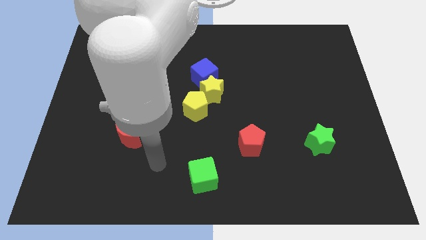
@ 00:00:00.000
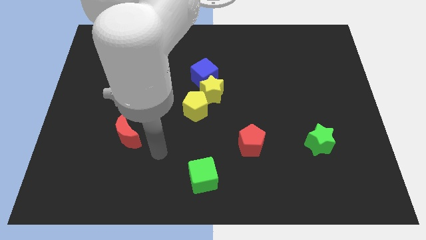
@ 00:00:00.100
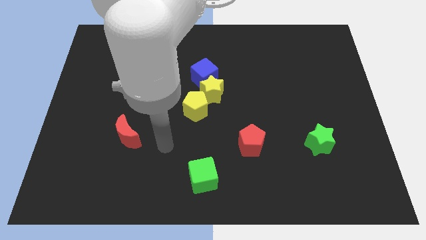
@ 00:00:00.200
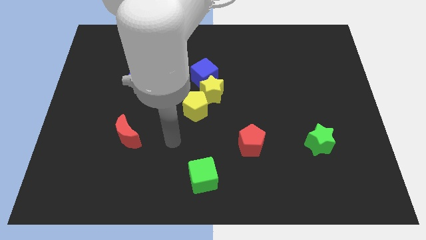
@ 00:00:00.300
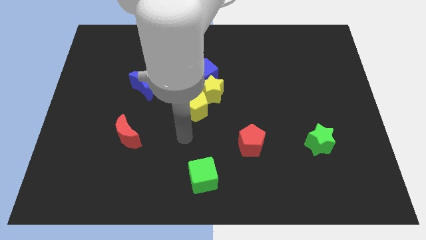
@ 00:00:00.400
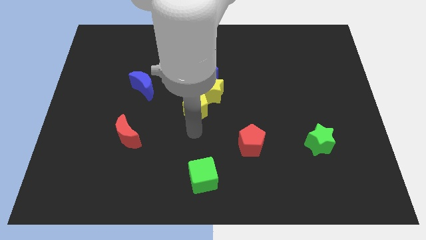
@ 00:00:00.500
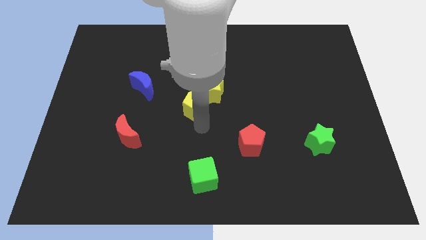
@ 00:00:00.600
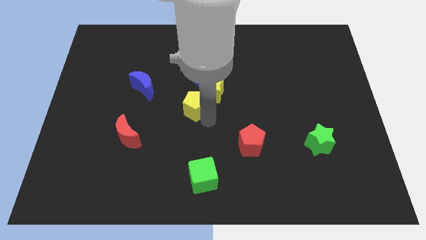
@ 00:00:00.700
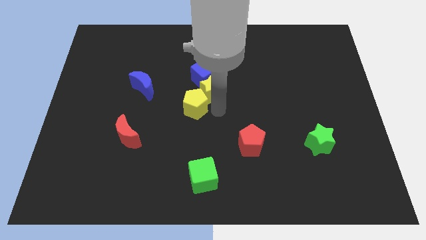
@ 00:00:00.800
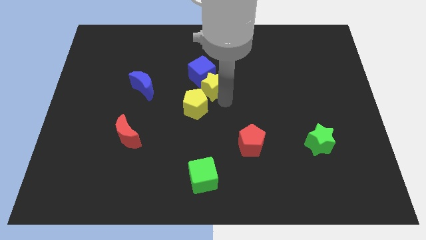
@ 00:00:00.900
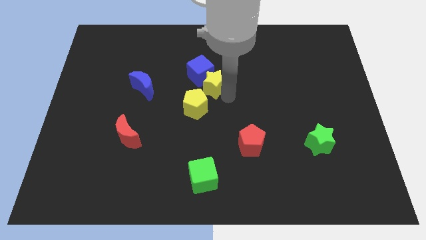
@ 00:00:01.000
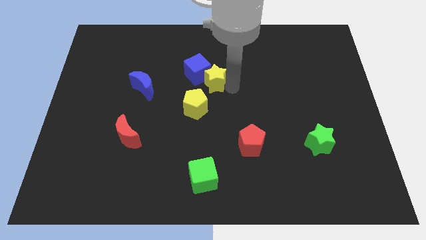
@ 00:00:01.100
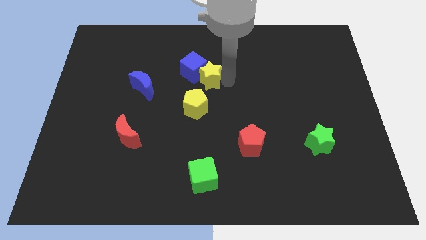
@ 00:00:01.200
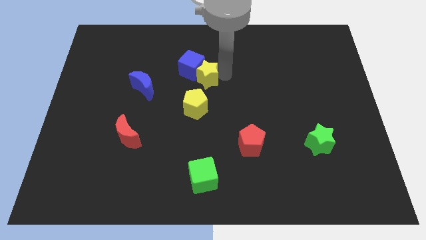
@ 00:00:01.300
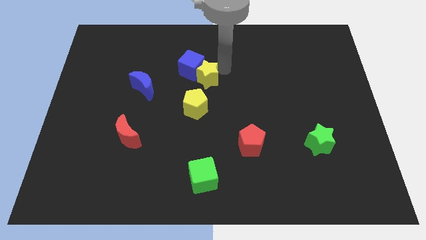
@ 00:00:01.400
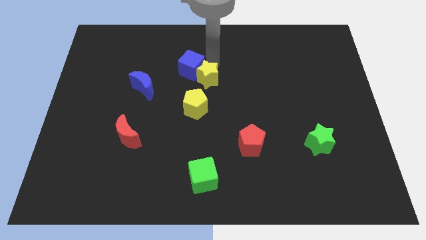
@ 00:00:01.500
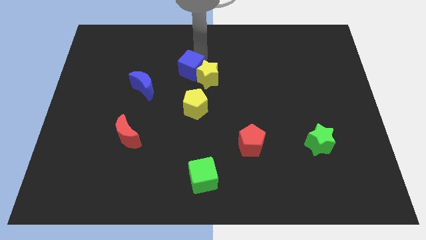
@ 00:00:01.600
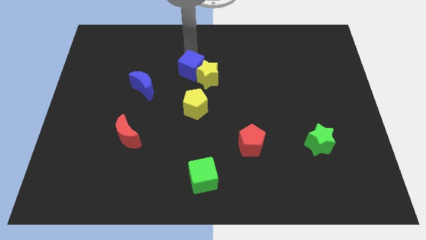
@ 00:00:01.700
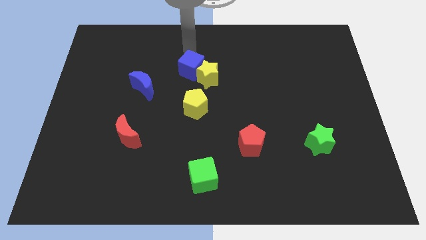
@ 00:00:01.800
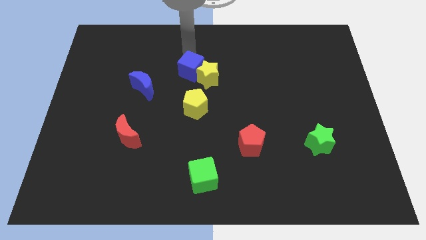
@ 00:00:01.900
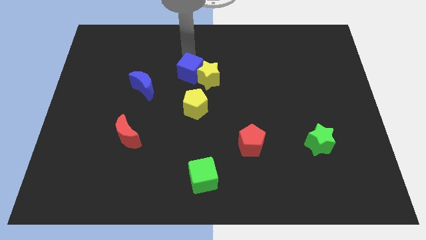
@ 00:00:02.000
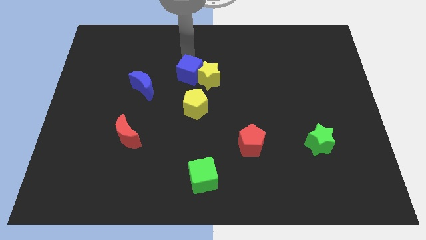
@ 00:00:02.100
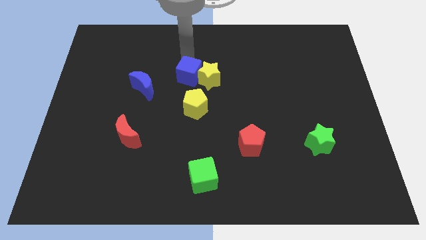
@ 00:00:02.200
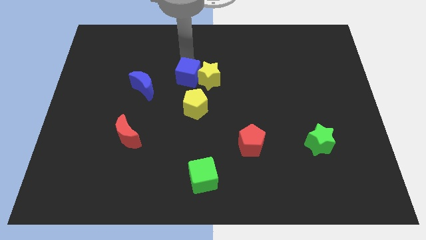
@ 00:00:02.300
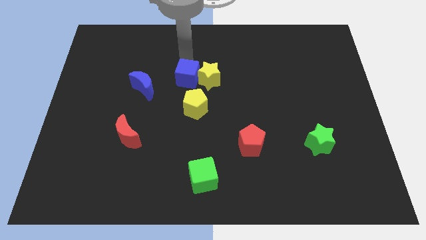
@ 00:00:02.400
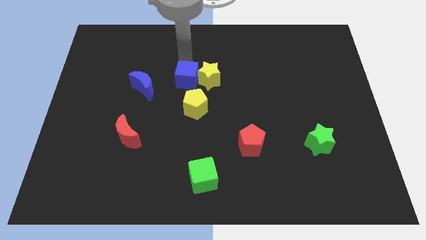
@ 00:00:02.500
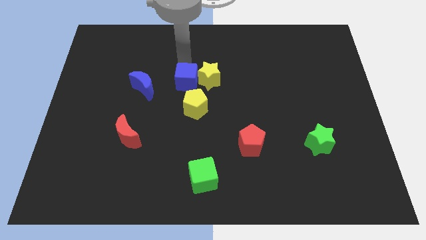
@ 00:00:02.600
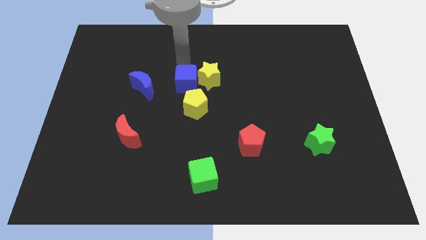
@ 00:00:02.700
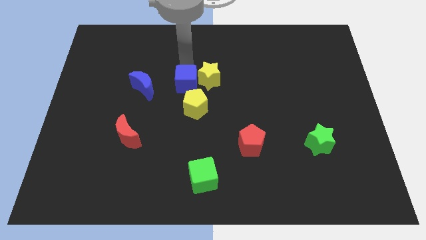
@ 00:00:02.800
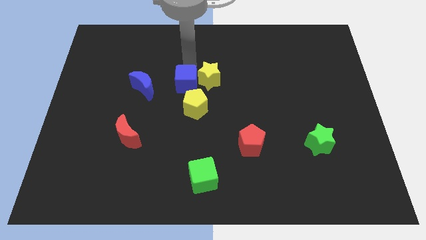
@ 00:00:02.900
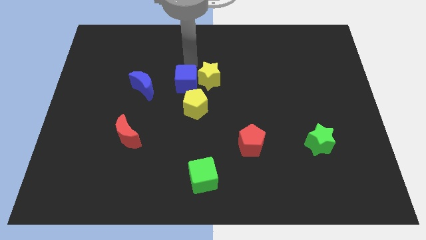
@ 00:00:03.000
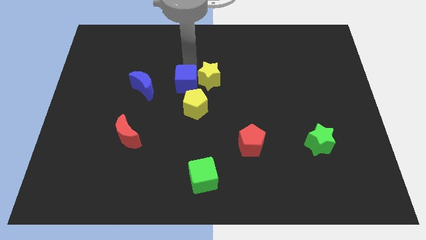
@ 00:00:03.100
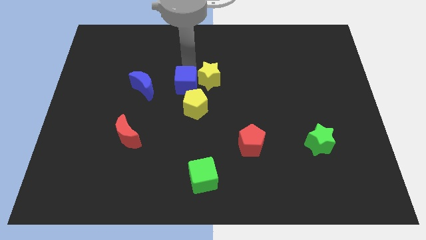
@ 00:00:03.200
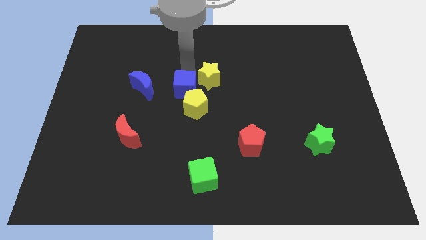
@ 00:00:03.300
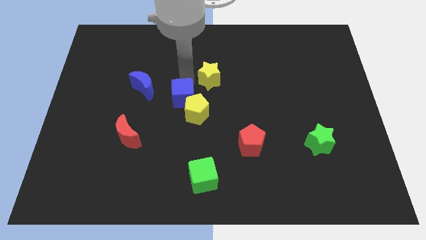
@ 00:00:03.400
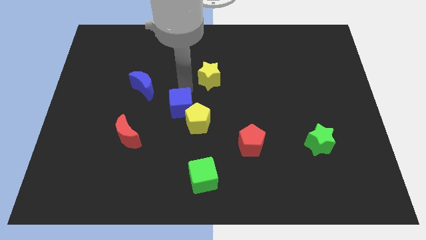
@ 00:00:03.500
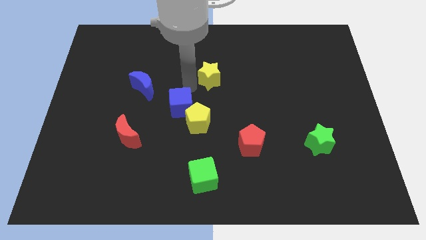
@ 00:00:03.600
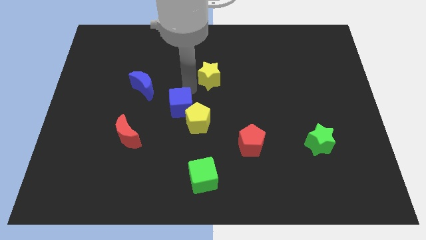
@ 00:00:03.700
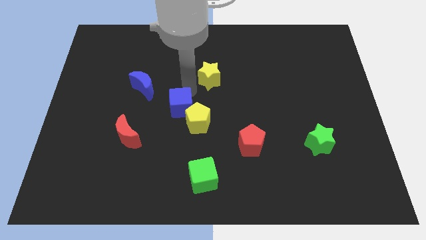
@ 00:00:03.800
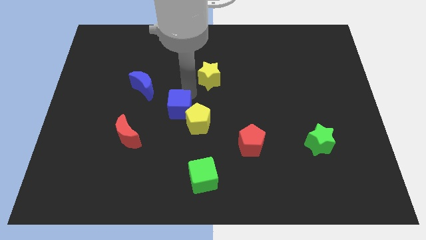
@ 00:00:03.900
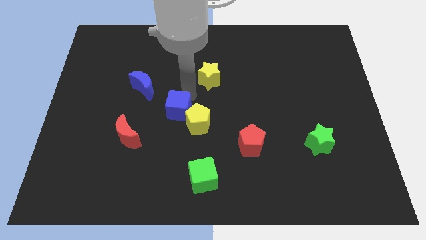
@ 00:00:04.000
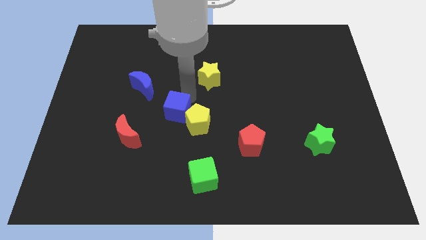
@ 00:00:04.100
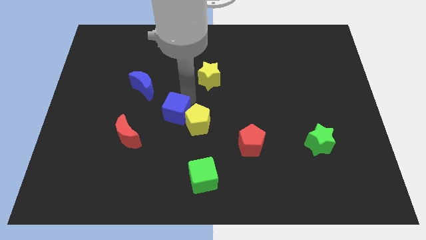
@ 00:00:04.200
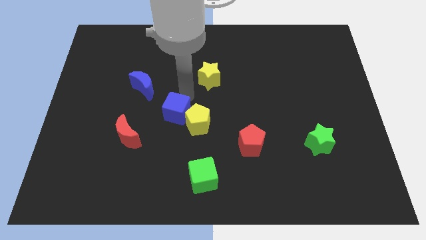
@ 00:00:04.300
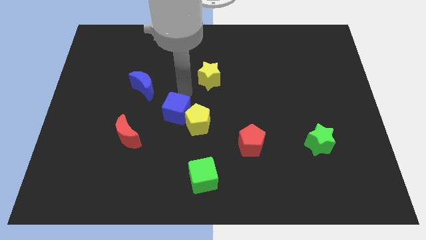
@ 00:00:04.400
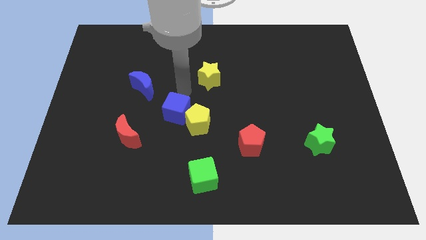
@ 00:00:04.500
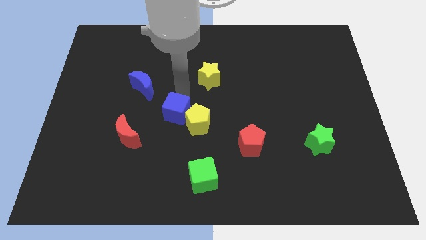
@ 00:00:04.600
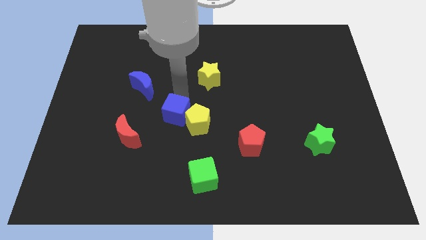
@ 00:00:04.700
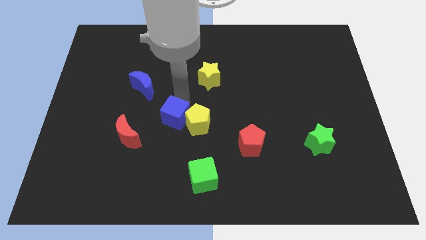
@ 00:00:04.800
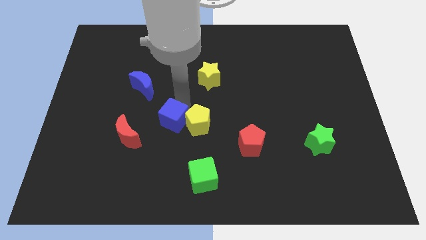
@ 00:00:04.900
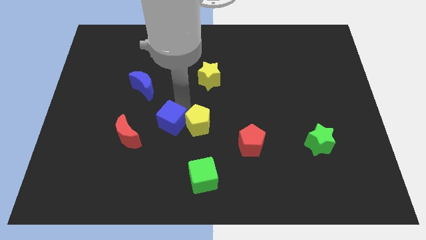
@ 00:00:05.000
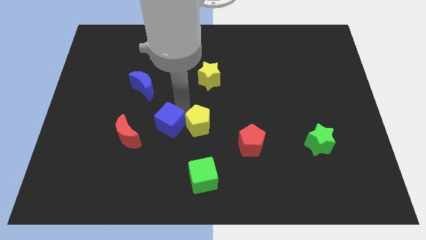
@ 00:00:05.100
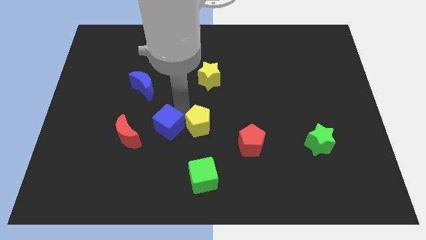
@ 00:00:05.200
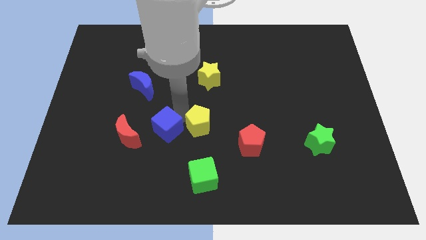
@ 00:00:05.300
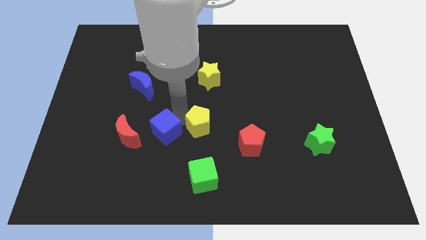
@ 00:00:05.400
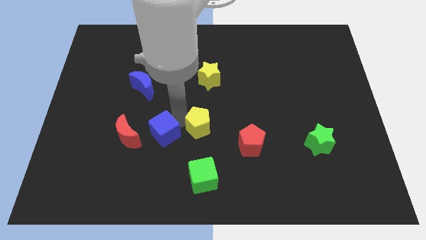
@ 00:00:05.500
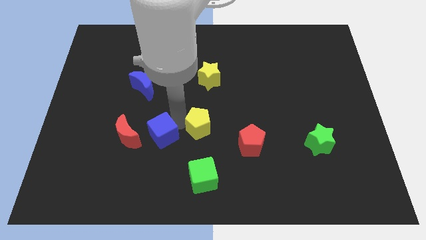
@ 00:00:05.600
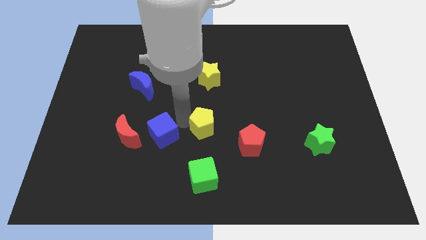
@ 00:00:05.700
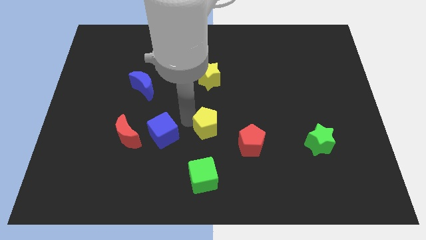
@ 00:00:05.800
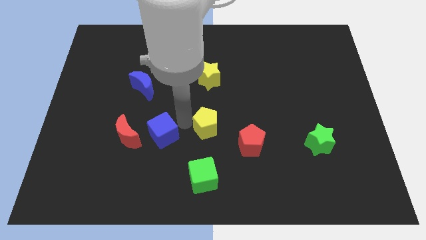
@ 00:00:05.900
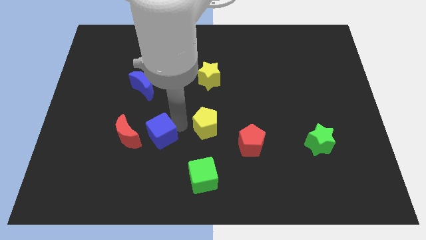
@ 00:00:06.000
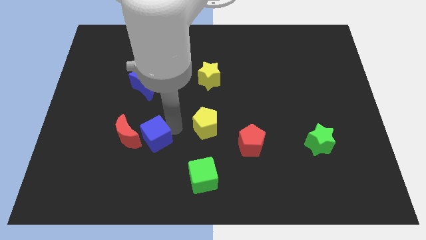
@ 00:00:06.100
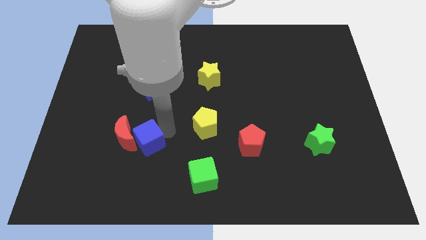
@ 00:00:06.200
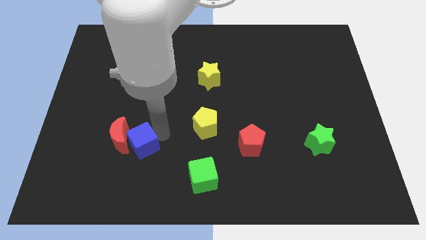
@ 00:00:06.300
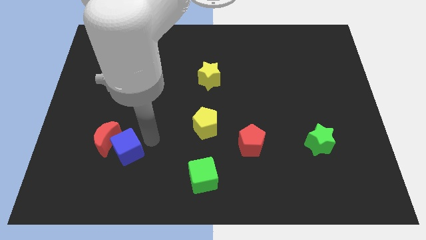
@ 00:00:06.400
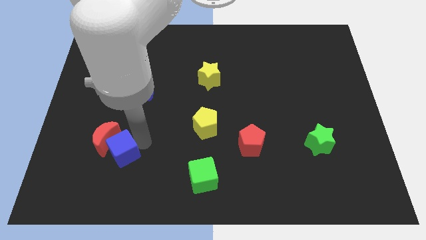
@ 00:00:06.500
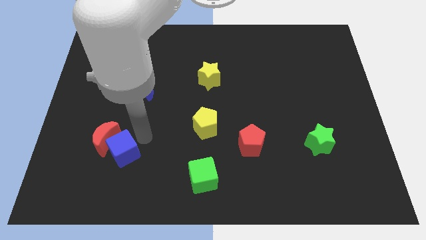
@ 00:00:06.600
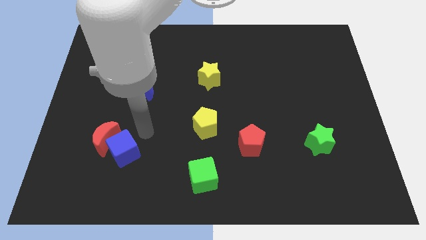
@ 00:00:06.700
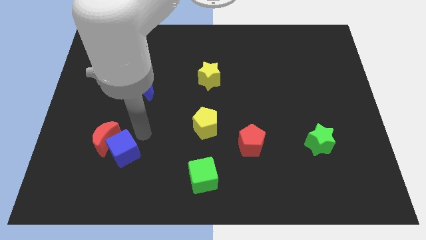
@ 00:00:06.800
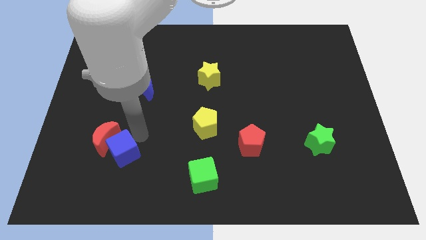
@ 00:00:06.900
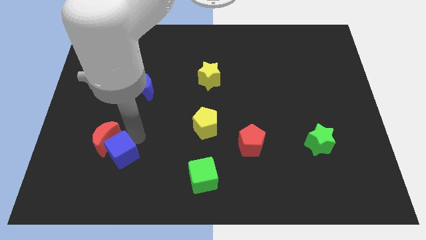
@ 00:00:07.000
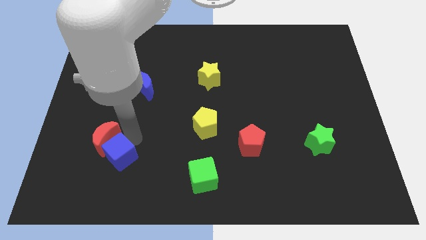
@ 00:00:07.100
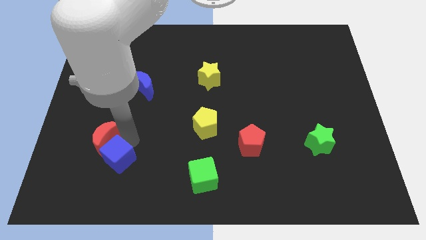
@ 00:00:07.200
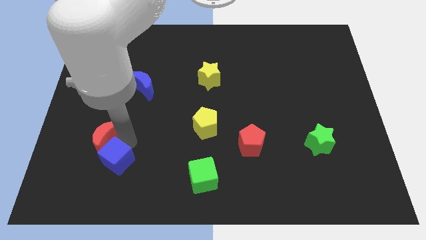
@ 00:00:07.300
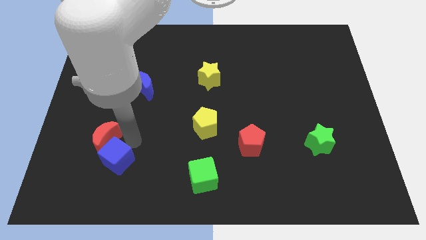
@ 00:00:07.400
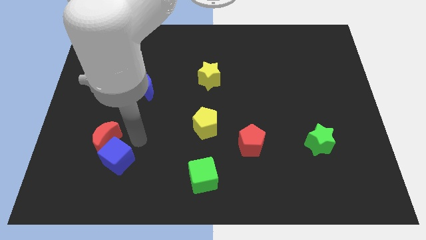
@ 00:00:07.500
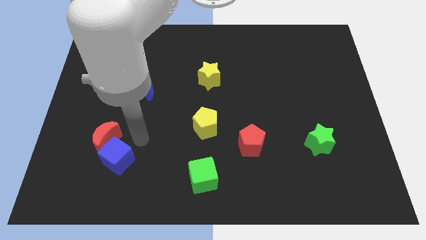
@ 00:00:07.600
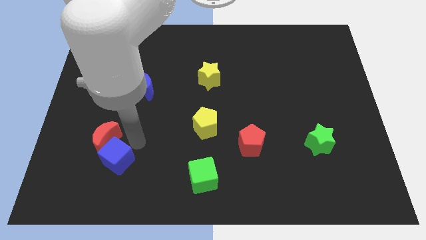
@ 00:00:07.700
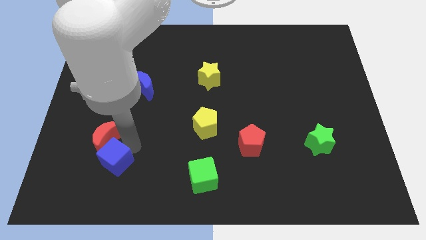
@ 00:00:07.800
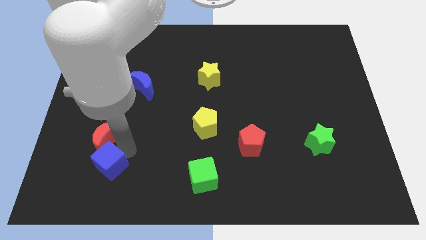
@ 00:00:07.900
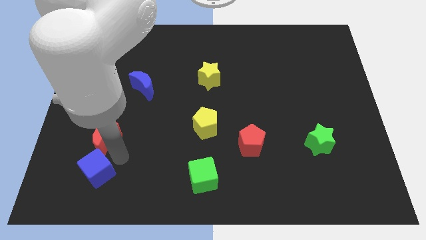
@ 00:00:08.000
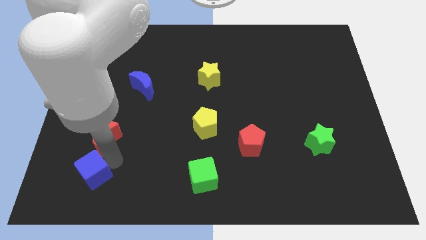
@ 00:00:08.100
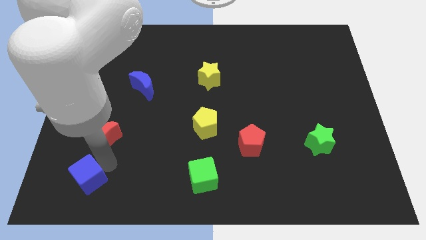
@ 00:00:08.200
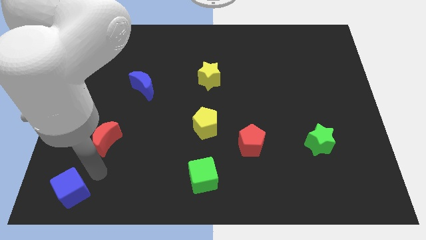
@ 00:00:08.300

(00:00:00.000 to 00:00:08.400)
slide the blue cube to the lower left corner
